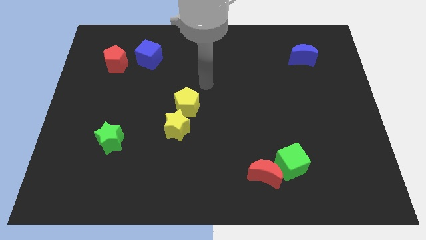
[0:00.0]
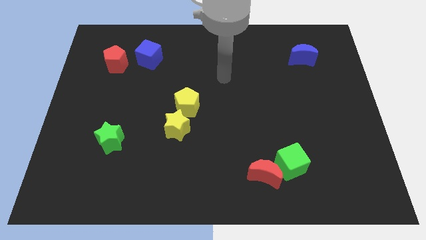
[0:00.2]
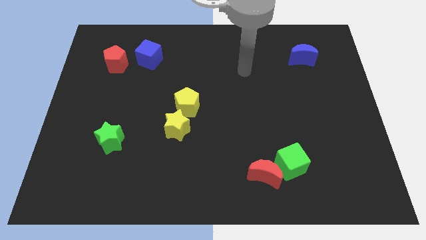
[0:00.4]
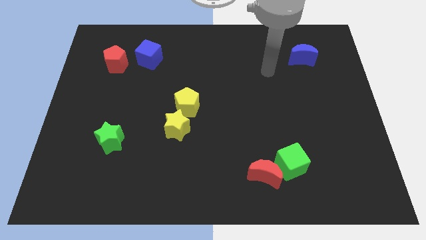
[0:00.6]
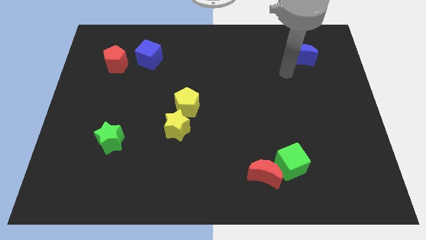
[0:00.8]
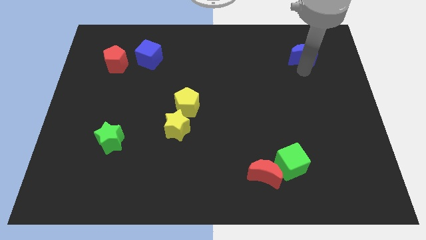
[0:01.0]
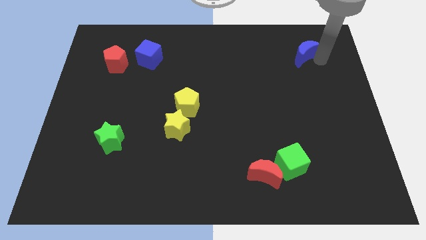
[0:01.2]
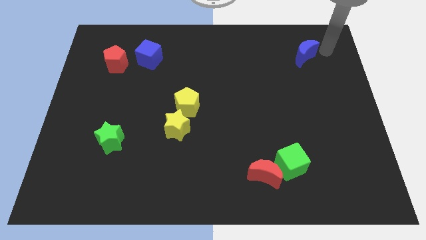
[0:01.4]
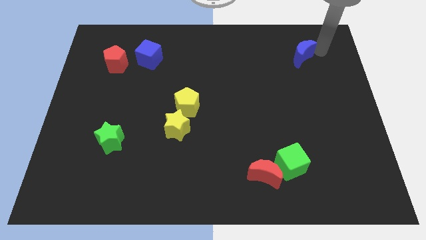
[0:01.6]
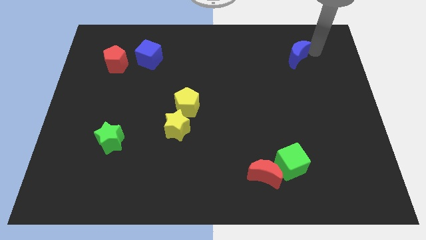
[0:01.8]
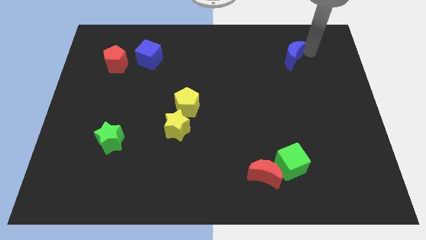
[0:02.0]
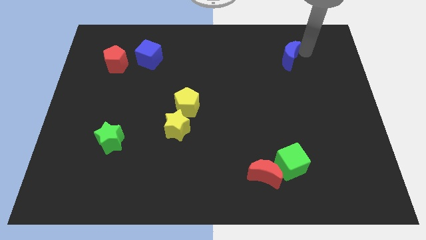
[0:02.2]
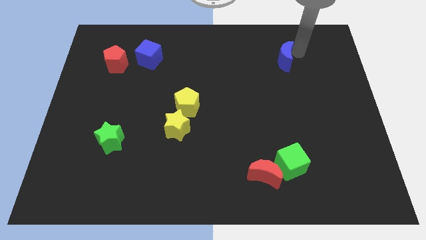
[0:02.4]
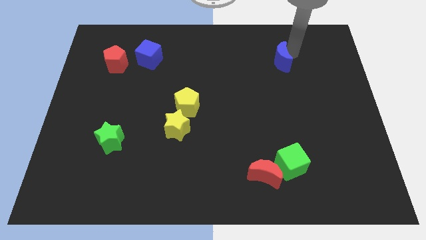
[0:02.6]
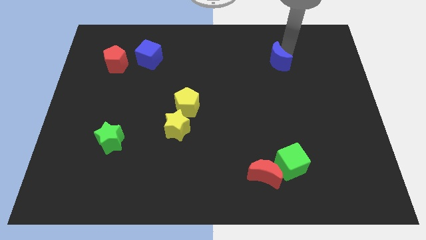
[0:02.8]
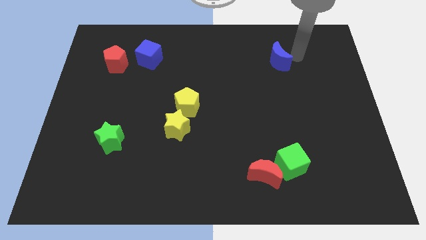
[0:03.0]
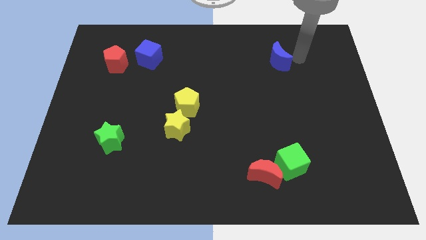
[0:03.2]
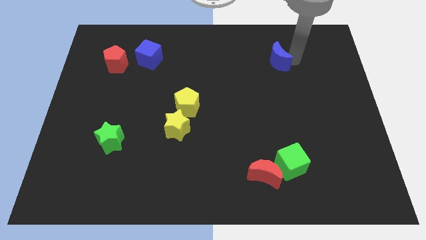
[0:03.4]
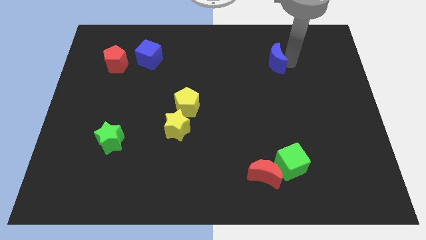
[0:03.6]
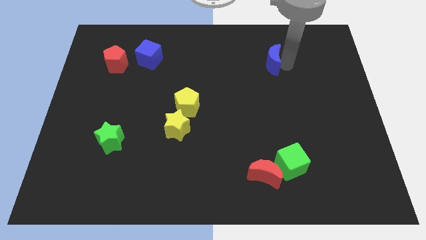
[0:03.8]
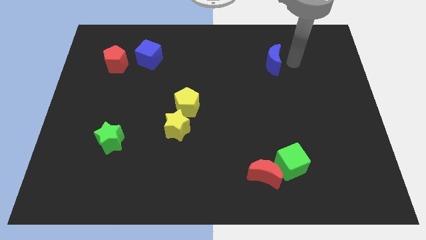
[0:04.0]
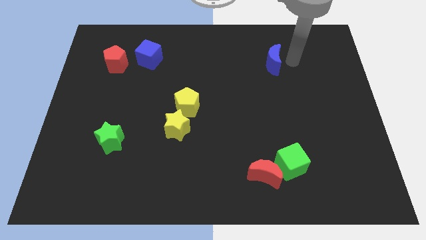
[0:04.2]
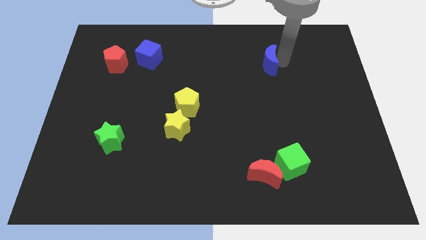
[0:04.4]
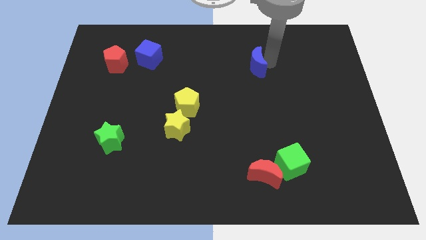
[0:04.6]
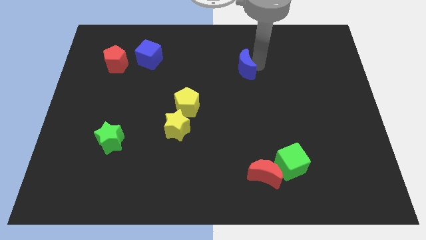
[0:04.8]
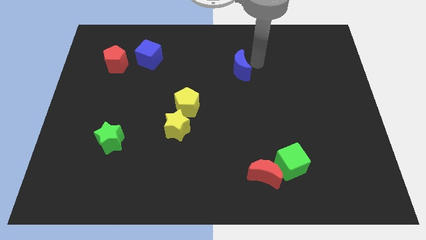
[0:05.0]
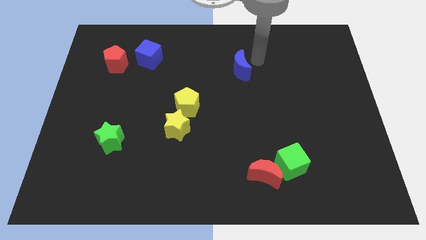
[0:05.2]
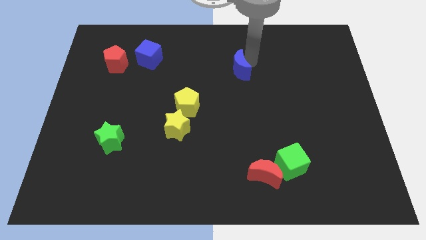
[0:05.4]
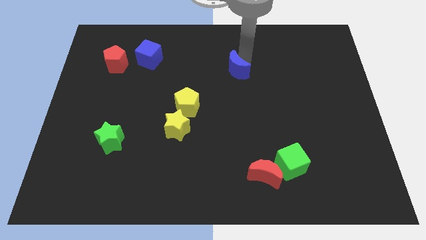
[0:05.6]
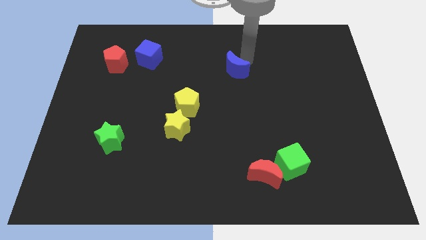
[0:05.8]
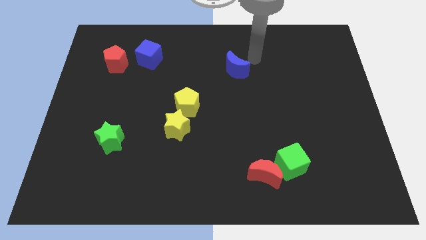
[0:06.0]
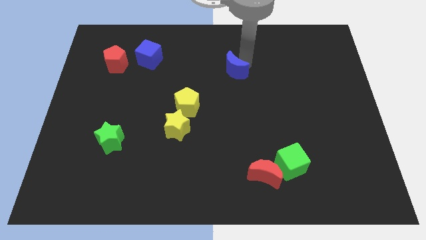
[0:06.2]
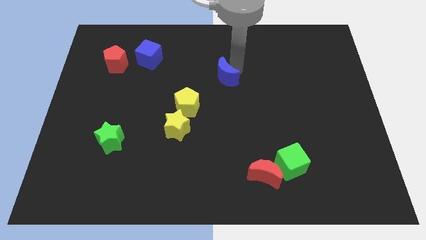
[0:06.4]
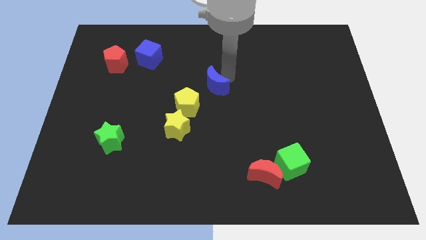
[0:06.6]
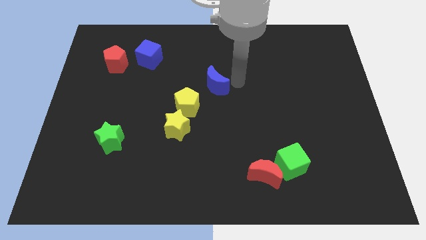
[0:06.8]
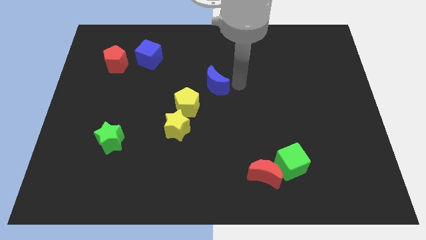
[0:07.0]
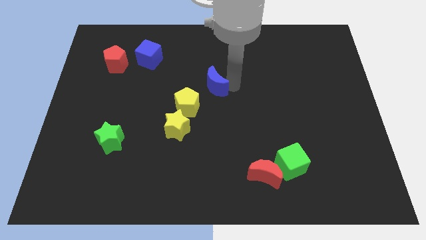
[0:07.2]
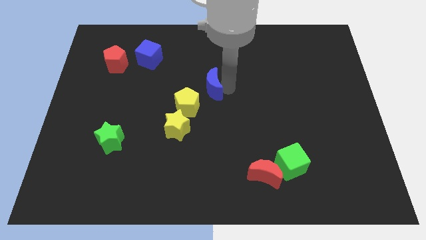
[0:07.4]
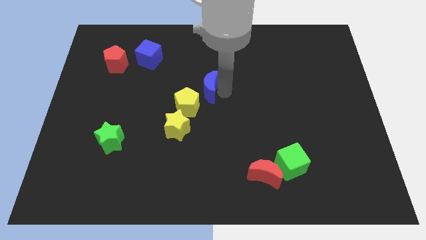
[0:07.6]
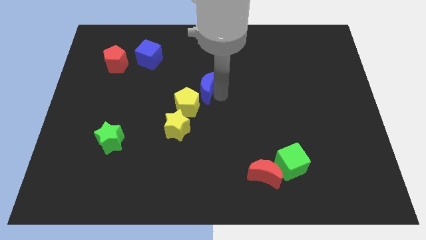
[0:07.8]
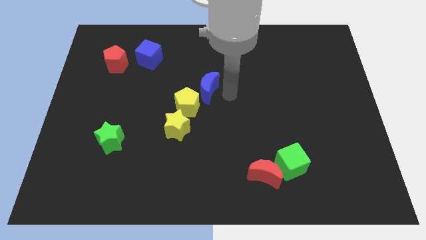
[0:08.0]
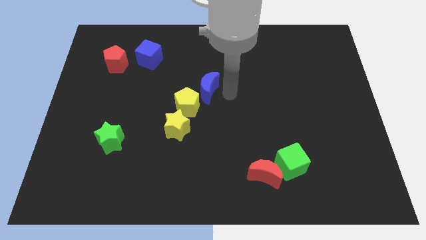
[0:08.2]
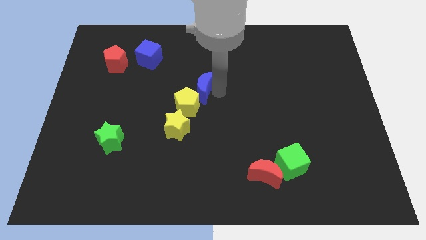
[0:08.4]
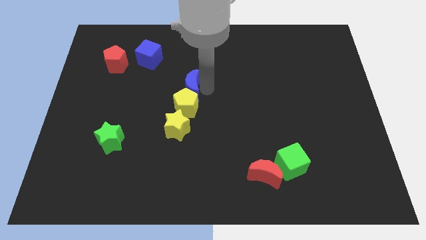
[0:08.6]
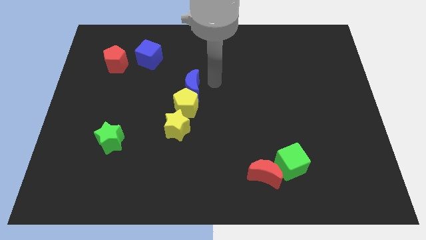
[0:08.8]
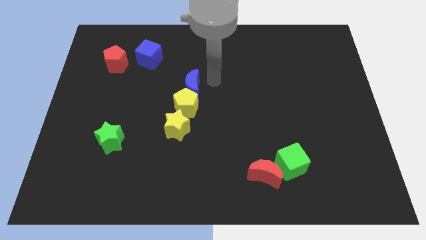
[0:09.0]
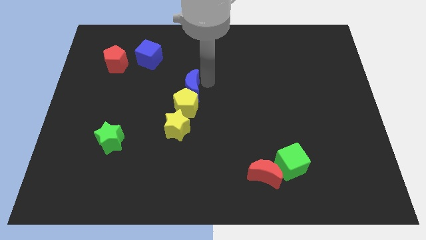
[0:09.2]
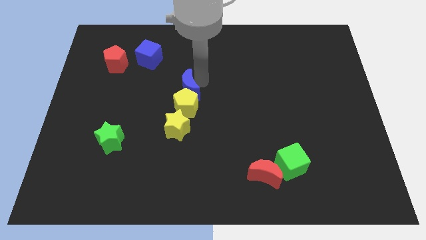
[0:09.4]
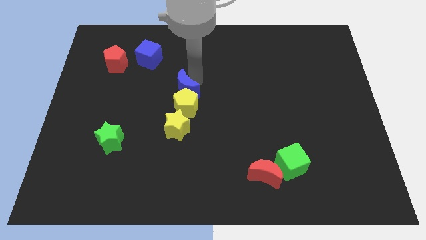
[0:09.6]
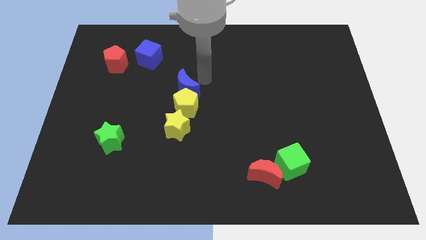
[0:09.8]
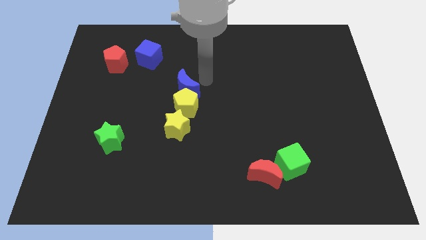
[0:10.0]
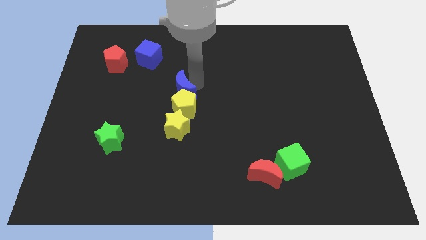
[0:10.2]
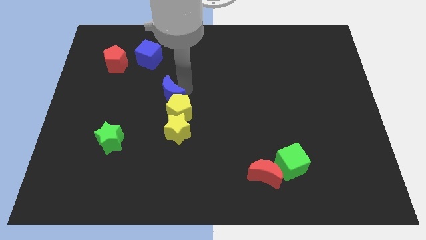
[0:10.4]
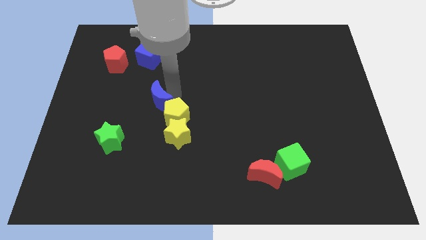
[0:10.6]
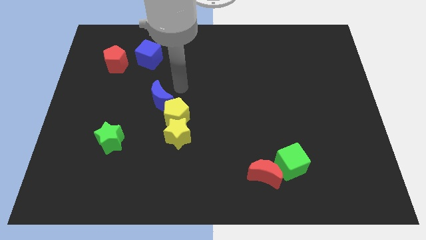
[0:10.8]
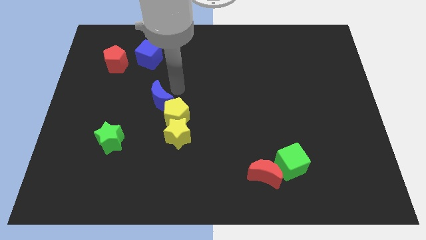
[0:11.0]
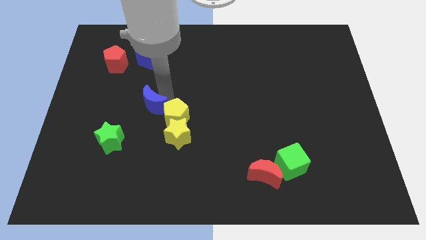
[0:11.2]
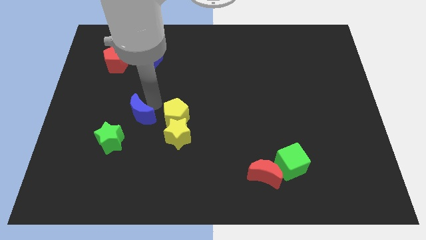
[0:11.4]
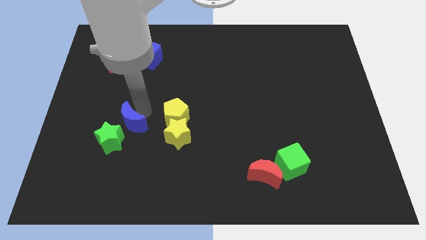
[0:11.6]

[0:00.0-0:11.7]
put the blue moon close to the green star

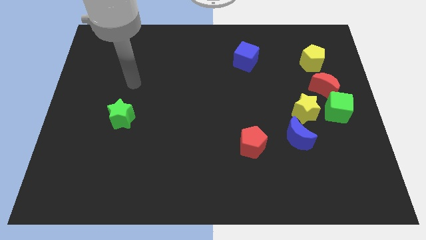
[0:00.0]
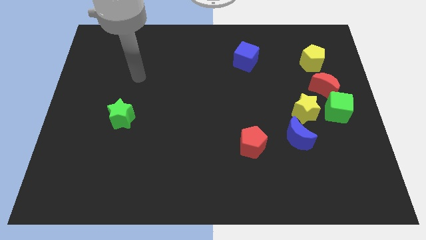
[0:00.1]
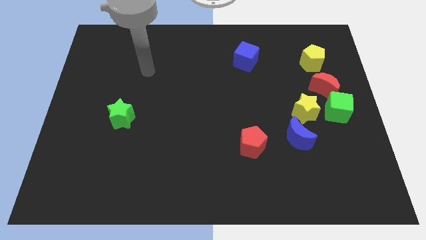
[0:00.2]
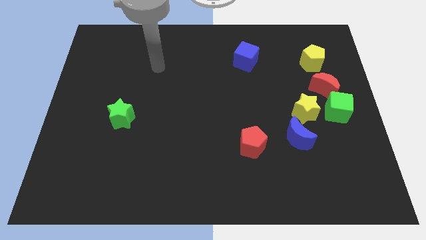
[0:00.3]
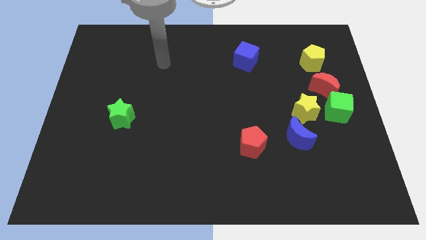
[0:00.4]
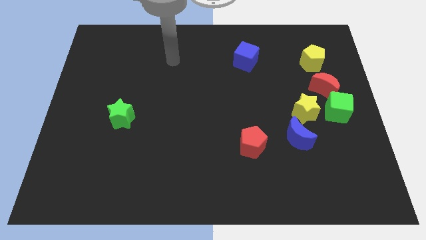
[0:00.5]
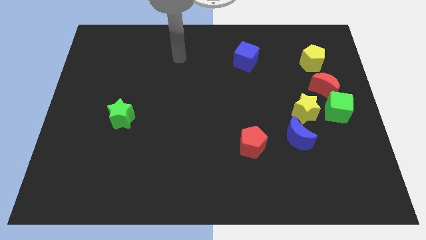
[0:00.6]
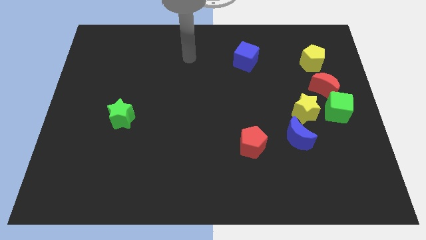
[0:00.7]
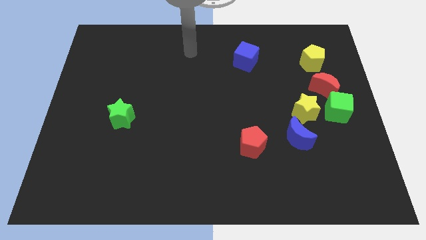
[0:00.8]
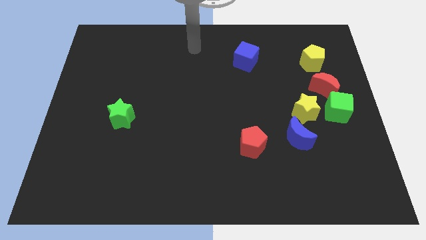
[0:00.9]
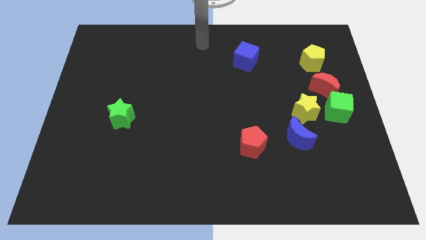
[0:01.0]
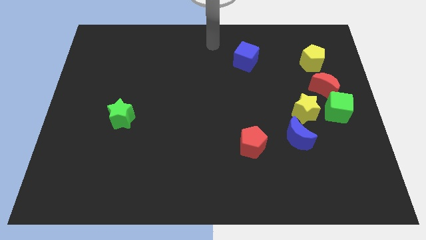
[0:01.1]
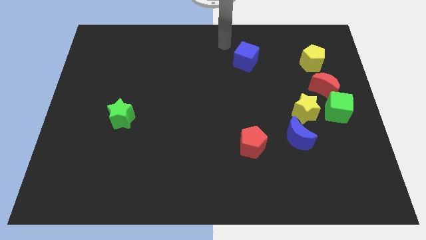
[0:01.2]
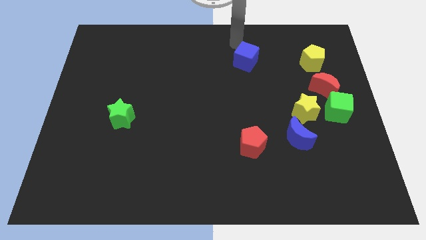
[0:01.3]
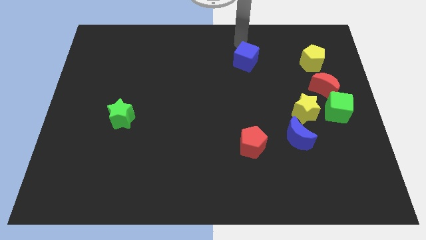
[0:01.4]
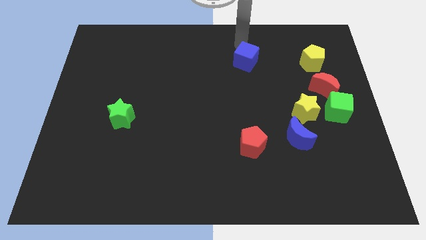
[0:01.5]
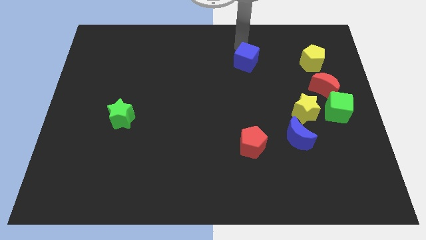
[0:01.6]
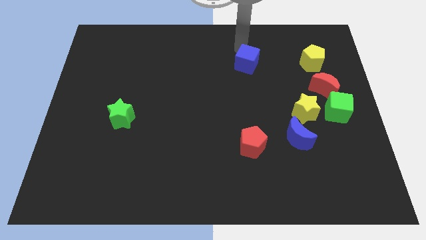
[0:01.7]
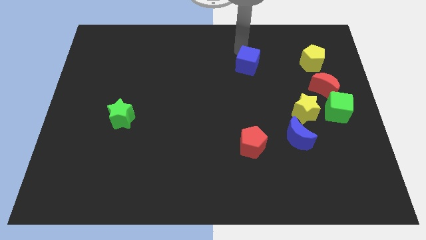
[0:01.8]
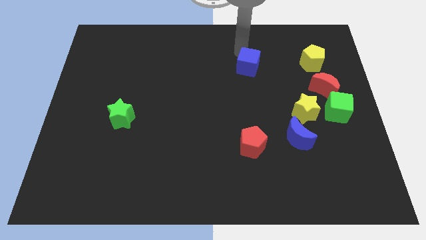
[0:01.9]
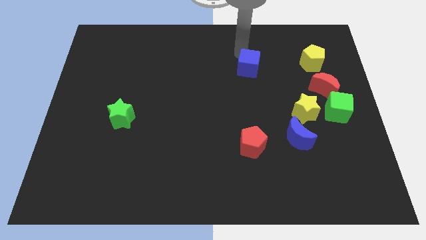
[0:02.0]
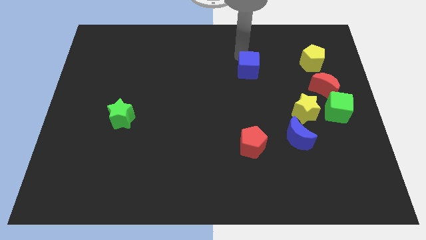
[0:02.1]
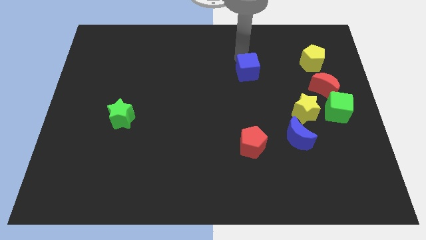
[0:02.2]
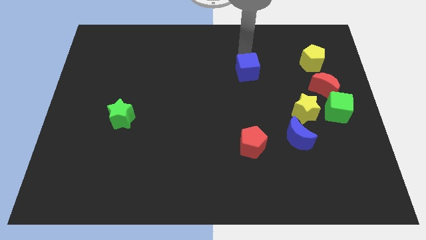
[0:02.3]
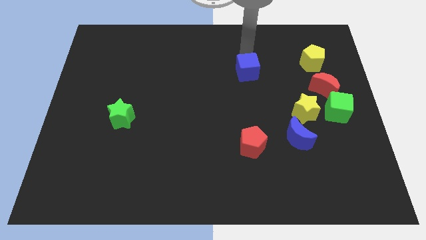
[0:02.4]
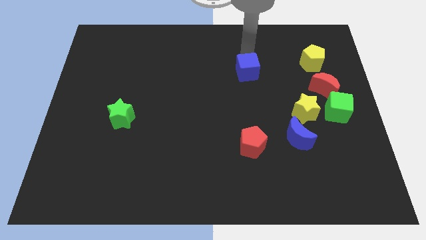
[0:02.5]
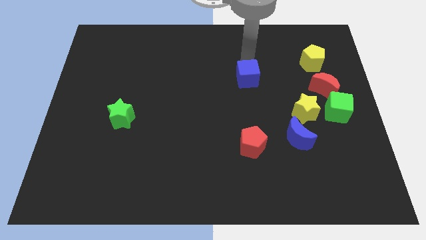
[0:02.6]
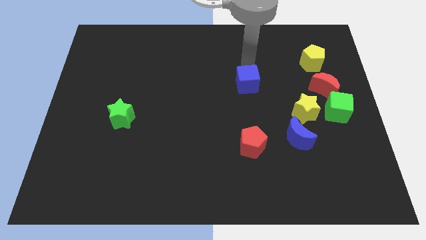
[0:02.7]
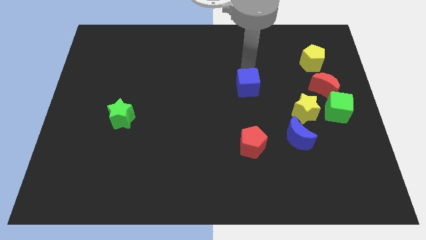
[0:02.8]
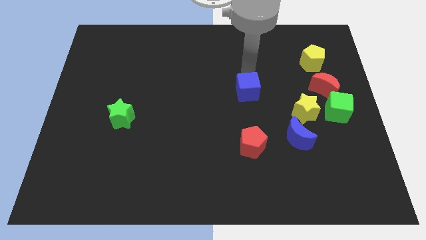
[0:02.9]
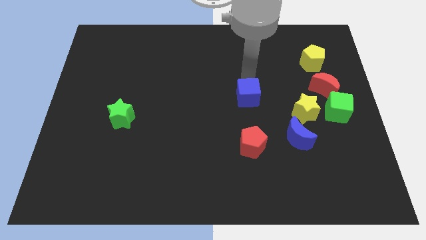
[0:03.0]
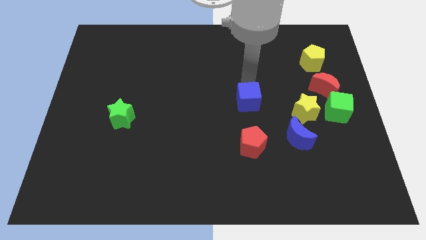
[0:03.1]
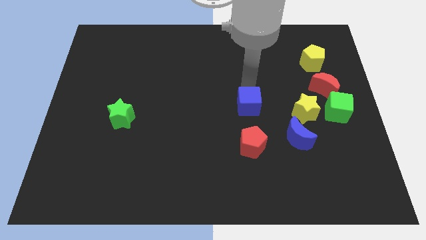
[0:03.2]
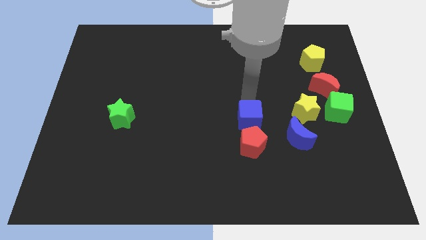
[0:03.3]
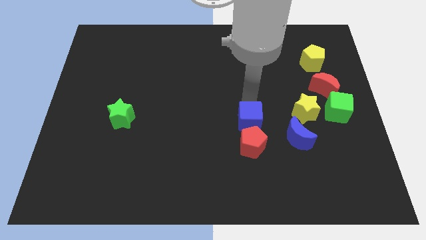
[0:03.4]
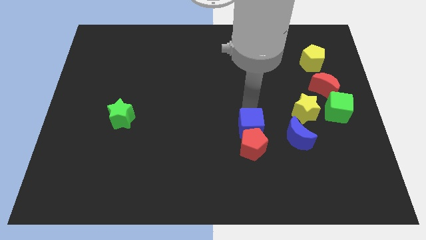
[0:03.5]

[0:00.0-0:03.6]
move the blue cube next to the red pentagon
